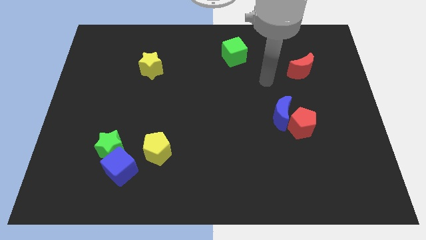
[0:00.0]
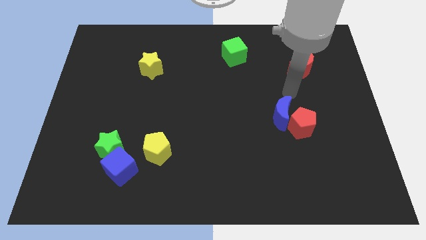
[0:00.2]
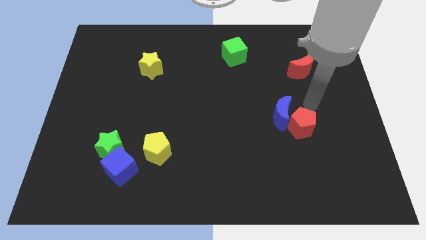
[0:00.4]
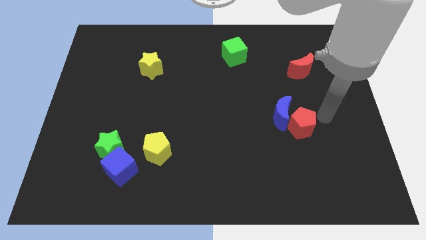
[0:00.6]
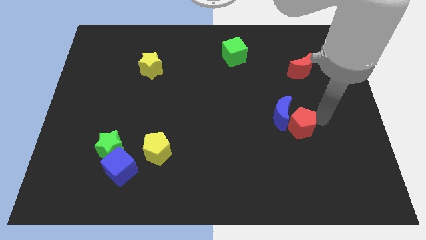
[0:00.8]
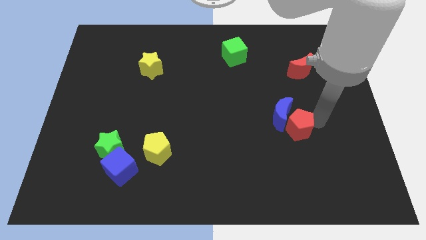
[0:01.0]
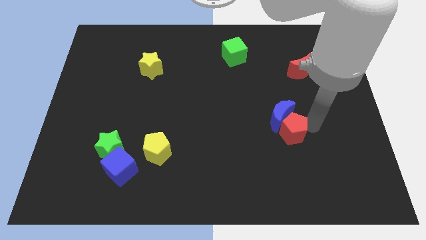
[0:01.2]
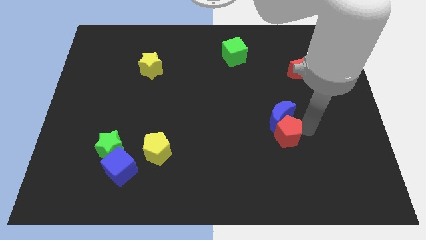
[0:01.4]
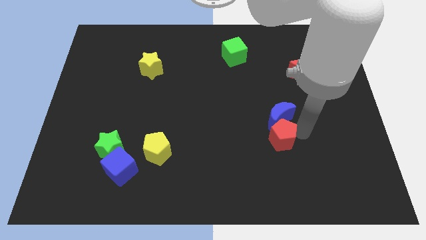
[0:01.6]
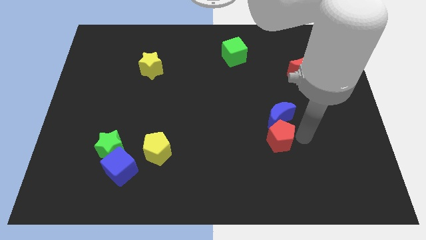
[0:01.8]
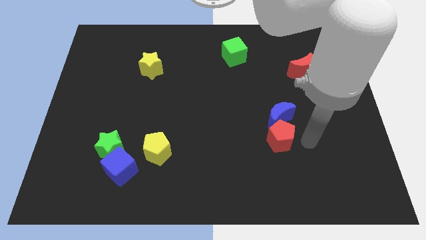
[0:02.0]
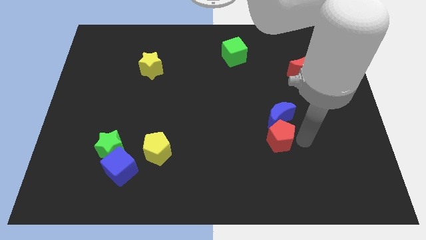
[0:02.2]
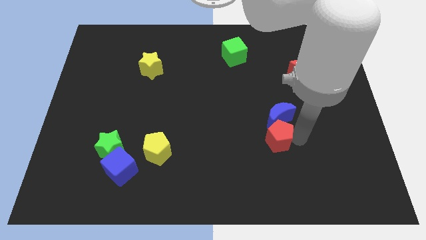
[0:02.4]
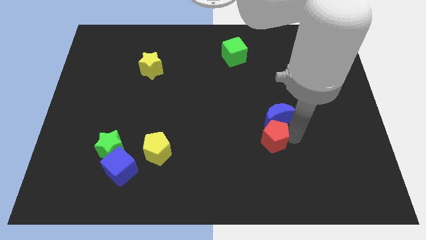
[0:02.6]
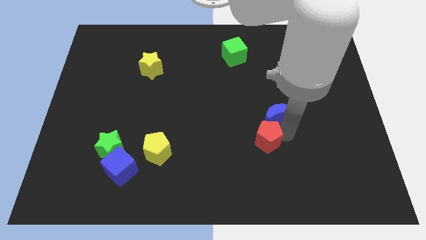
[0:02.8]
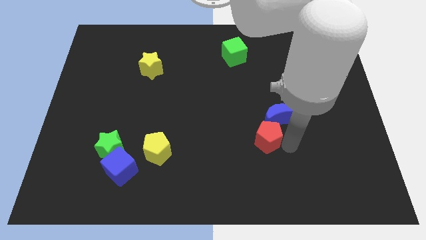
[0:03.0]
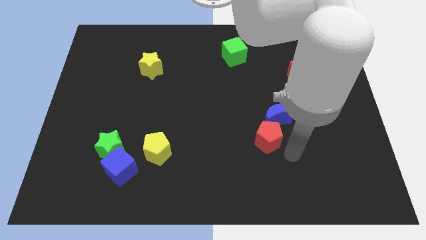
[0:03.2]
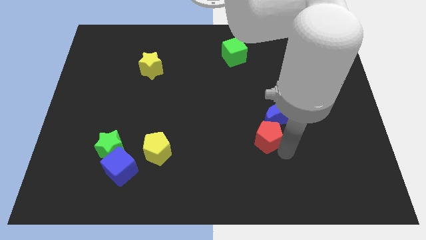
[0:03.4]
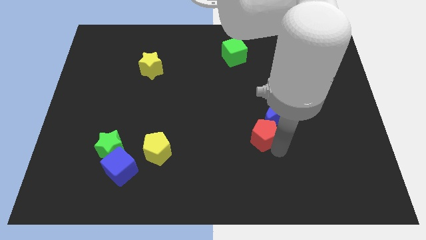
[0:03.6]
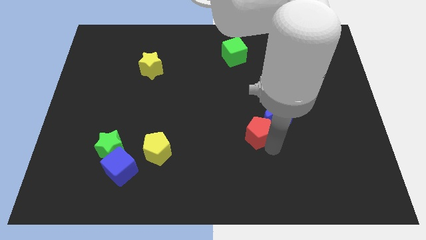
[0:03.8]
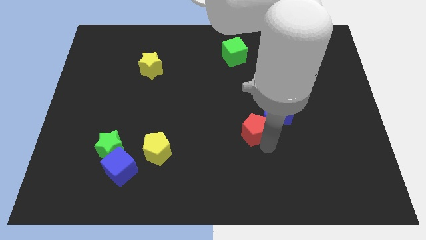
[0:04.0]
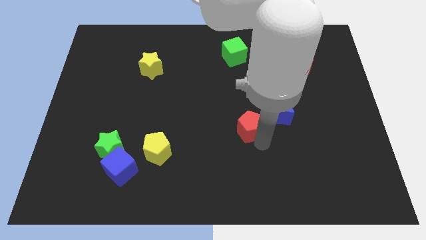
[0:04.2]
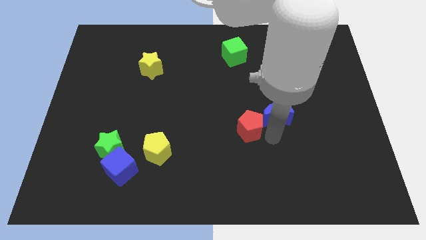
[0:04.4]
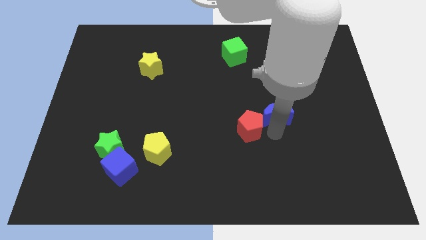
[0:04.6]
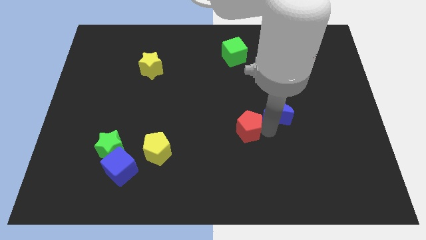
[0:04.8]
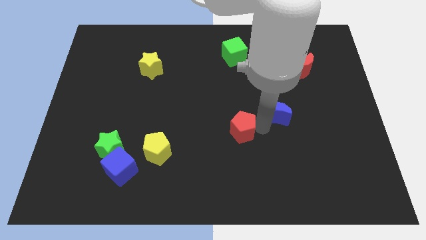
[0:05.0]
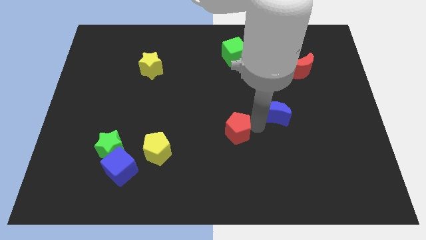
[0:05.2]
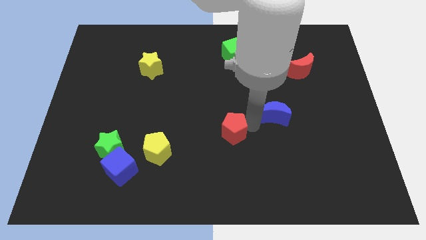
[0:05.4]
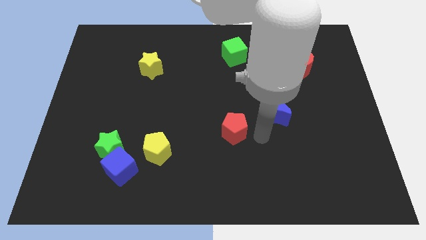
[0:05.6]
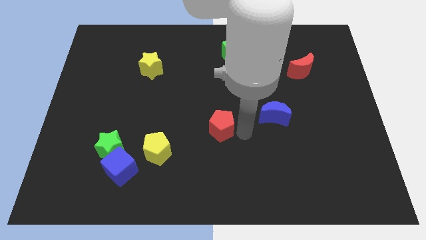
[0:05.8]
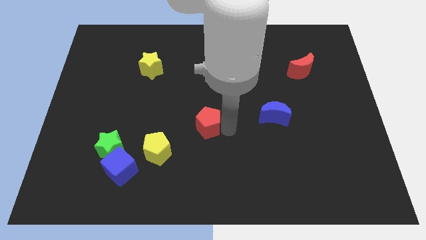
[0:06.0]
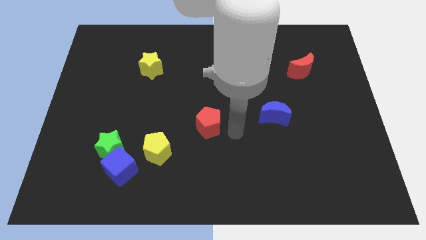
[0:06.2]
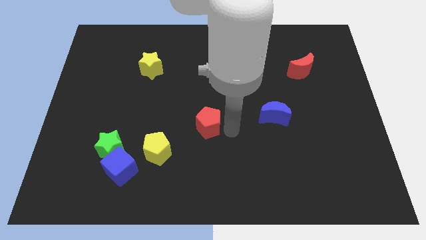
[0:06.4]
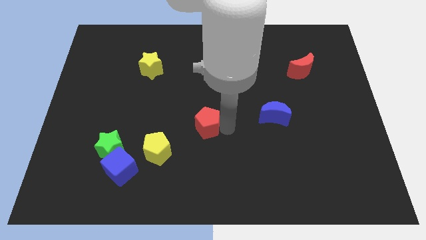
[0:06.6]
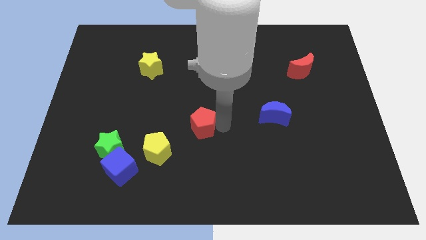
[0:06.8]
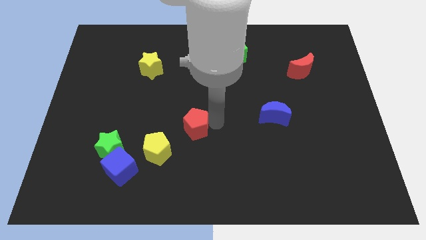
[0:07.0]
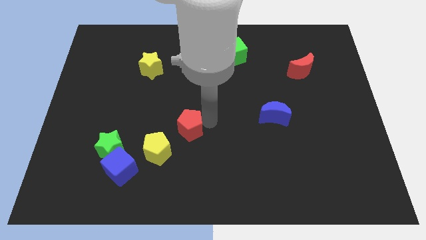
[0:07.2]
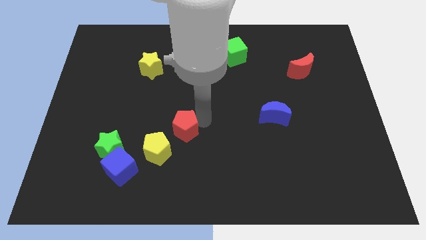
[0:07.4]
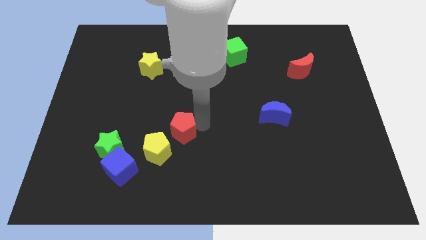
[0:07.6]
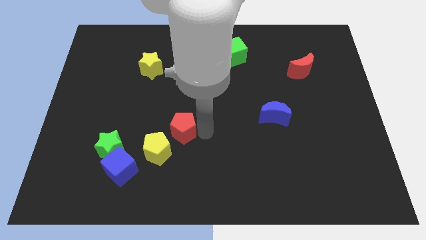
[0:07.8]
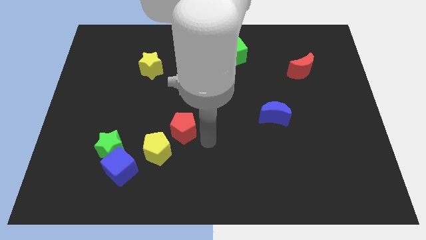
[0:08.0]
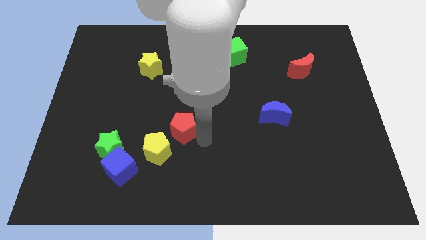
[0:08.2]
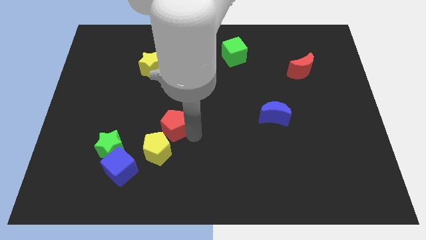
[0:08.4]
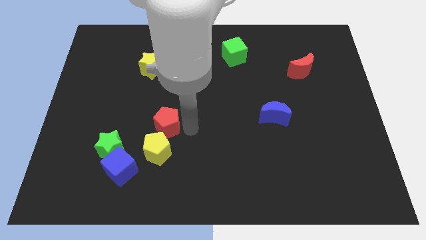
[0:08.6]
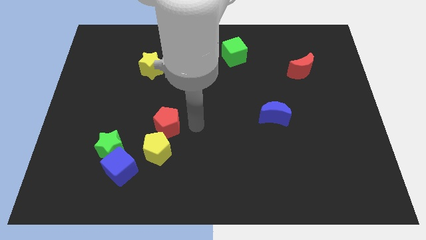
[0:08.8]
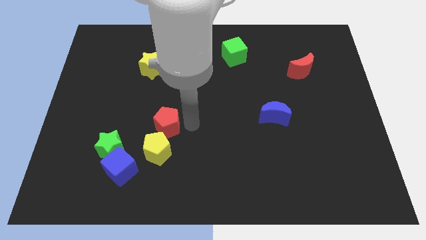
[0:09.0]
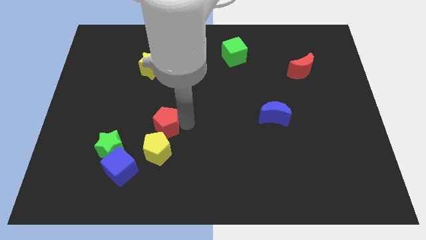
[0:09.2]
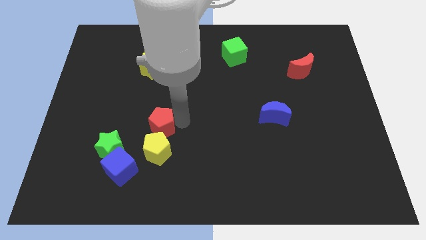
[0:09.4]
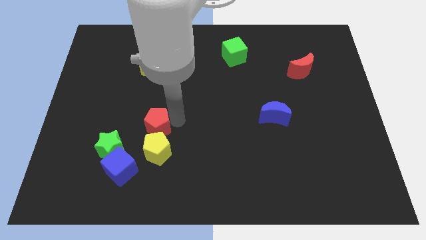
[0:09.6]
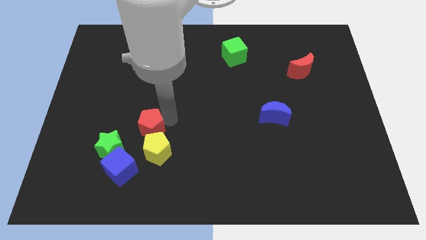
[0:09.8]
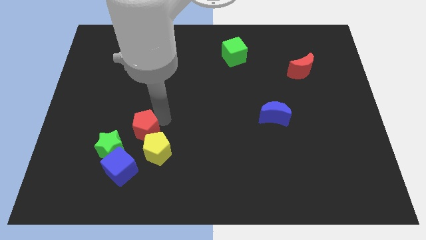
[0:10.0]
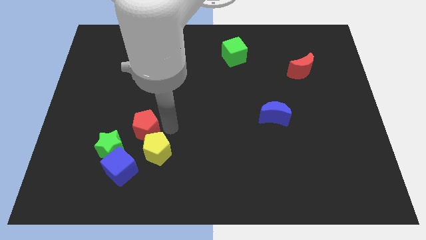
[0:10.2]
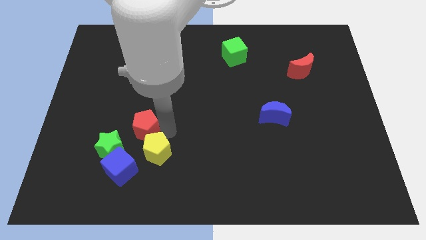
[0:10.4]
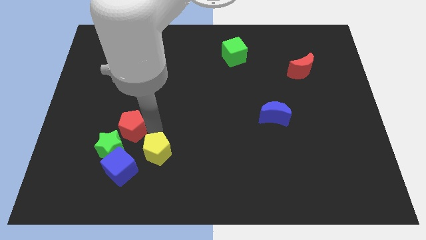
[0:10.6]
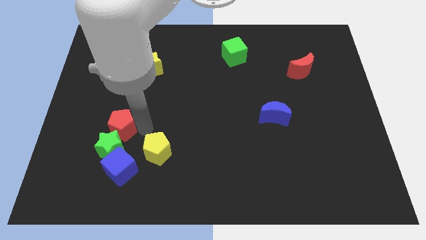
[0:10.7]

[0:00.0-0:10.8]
slide the red pentagon to the top left of the green star

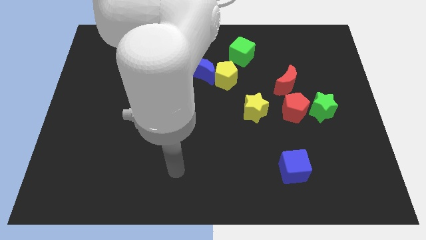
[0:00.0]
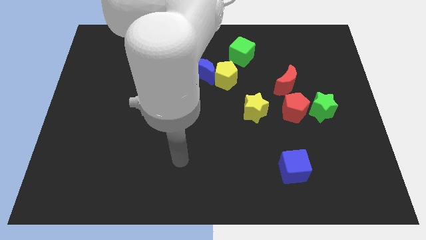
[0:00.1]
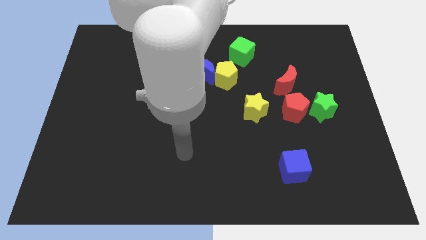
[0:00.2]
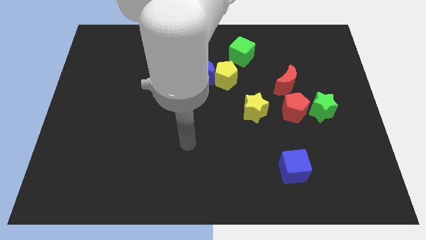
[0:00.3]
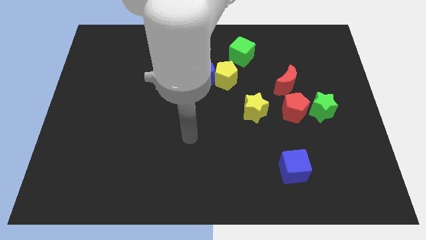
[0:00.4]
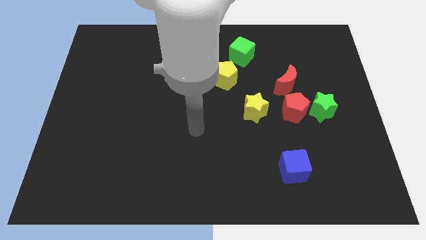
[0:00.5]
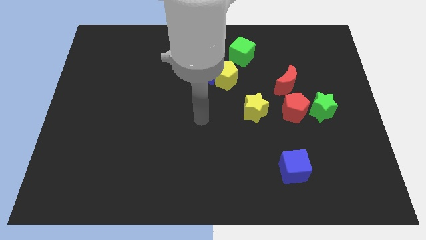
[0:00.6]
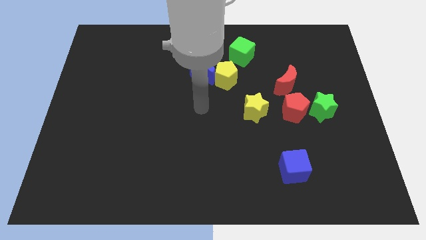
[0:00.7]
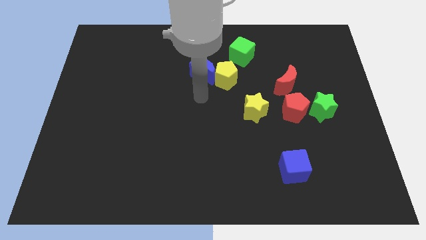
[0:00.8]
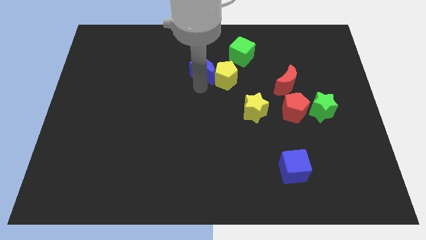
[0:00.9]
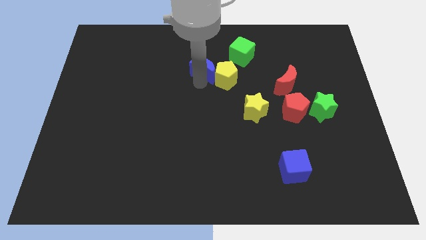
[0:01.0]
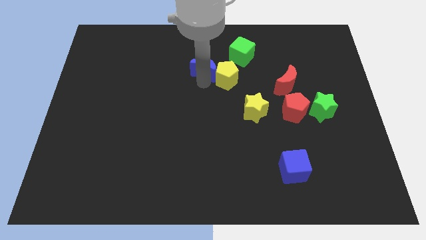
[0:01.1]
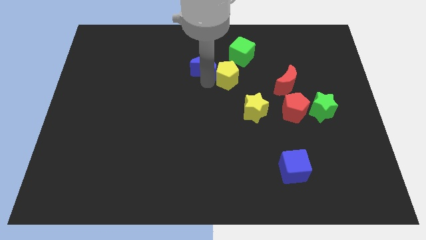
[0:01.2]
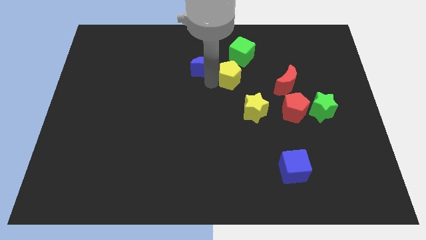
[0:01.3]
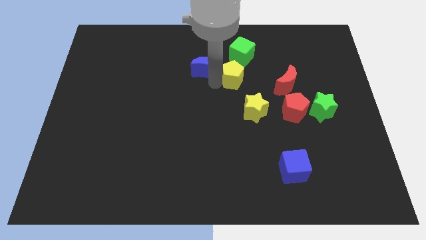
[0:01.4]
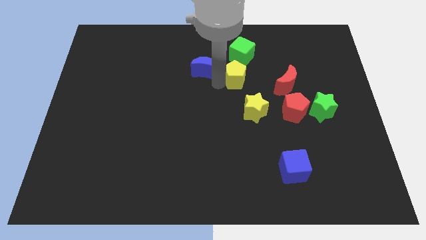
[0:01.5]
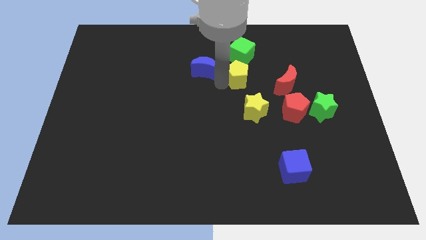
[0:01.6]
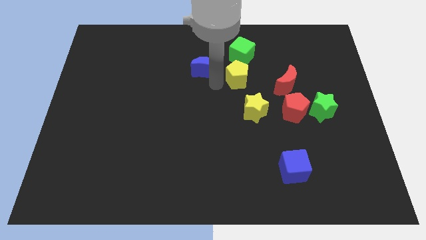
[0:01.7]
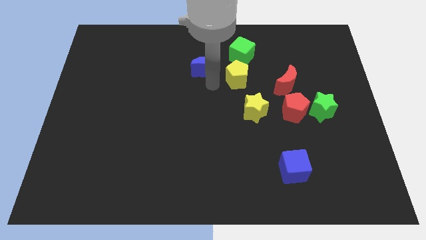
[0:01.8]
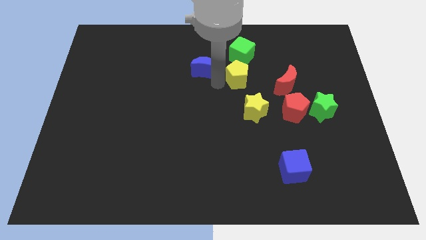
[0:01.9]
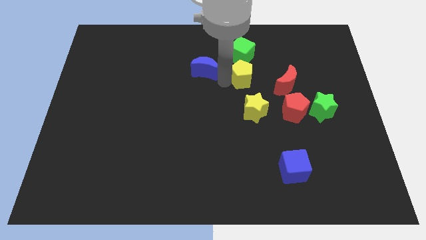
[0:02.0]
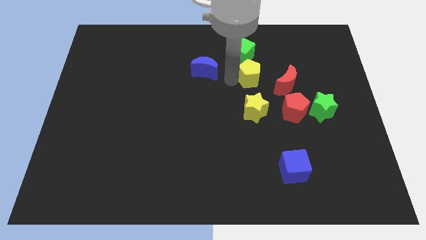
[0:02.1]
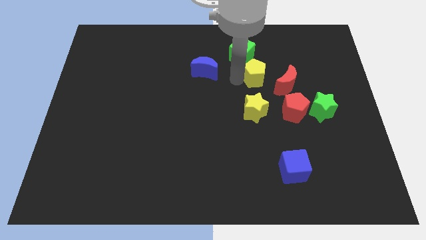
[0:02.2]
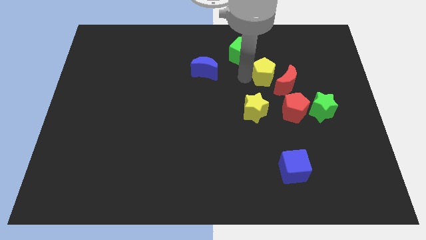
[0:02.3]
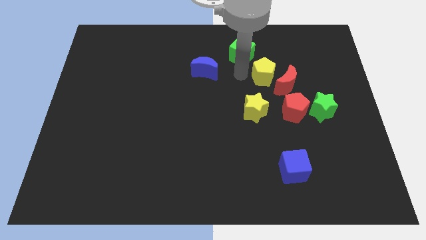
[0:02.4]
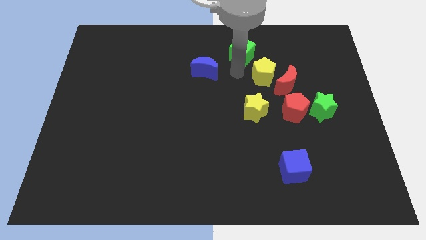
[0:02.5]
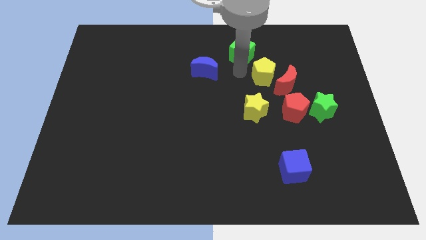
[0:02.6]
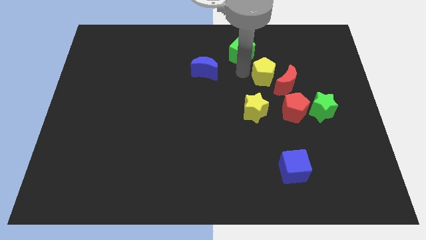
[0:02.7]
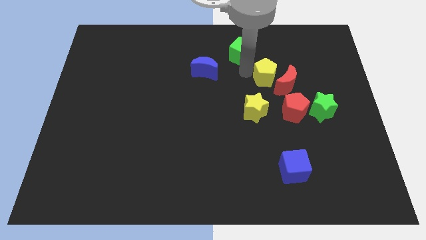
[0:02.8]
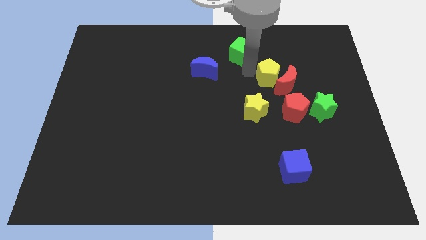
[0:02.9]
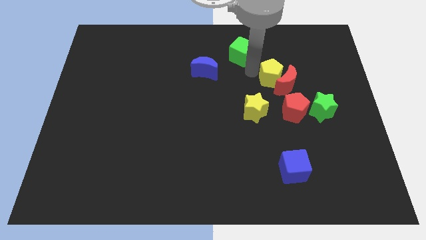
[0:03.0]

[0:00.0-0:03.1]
move the yellow pentagon above the red pentagon
